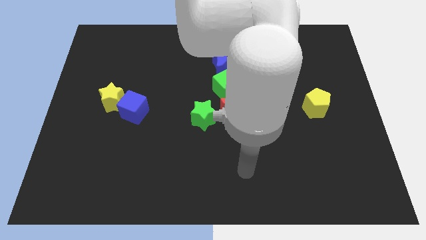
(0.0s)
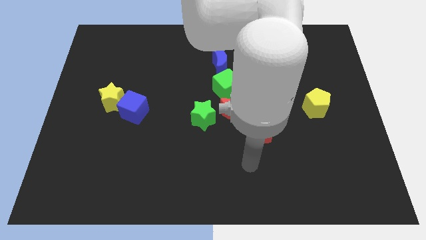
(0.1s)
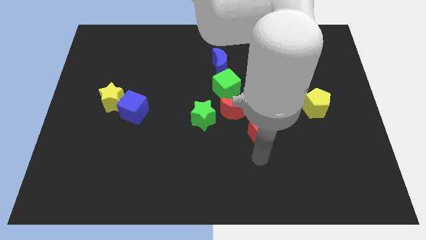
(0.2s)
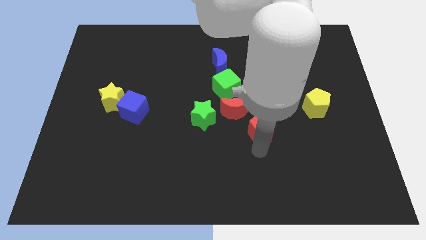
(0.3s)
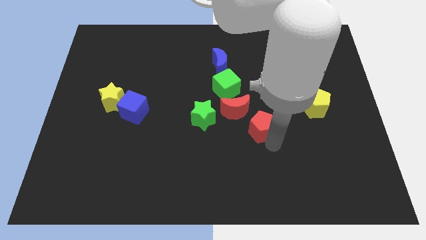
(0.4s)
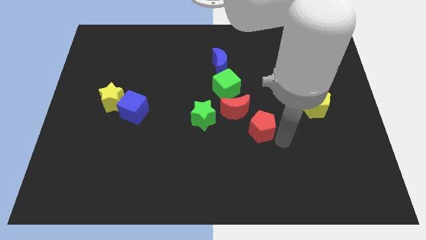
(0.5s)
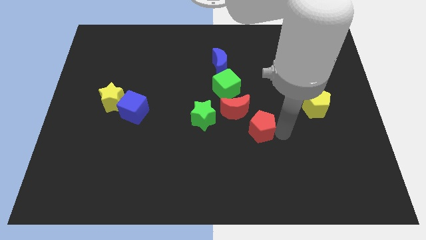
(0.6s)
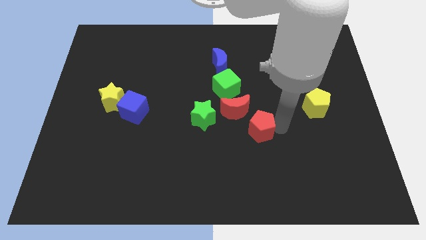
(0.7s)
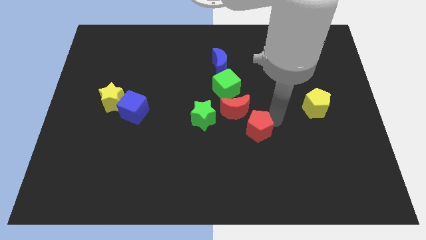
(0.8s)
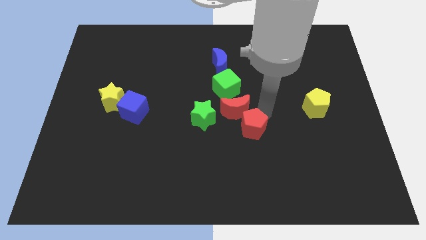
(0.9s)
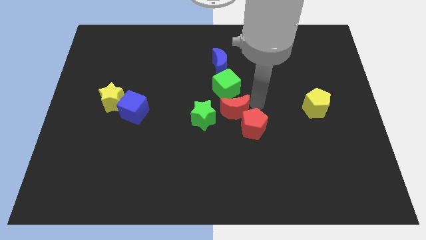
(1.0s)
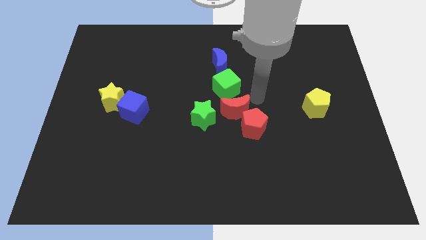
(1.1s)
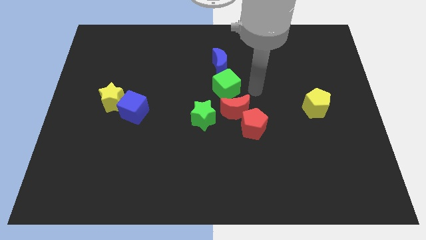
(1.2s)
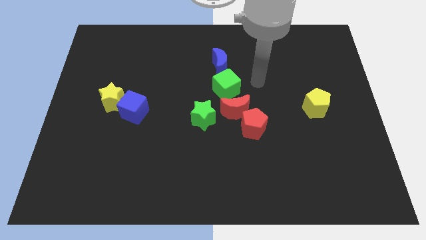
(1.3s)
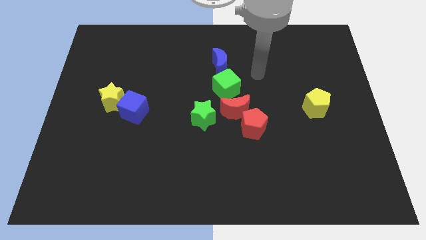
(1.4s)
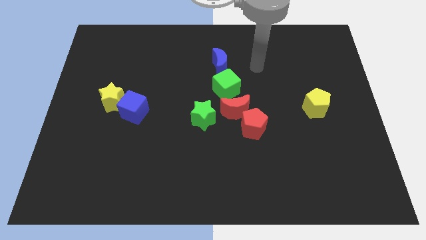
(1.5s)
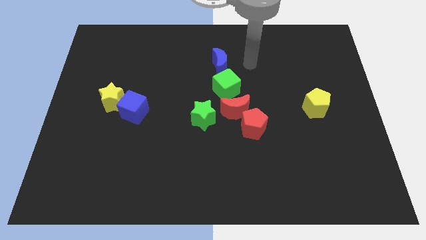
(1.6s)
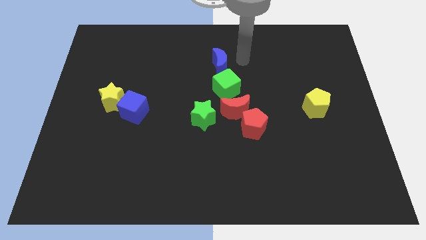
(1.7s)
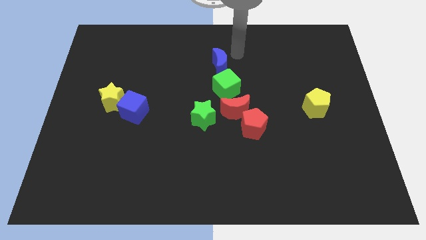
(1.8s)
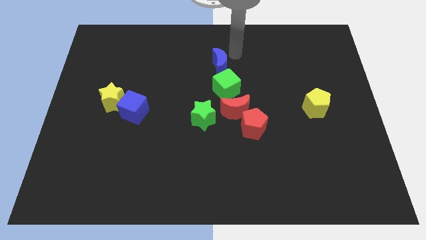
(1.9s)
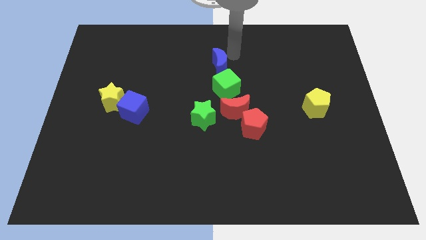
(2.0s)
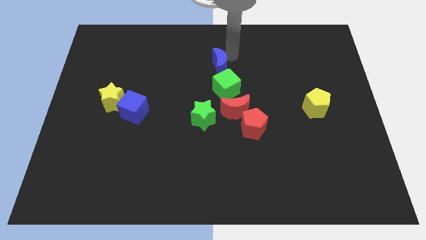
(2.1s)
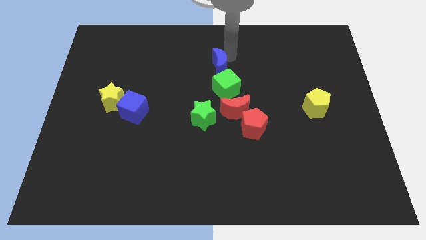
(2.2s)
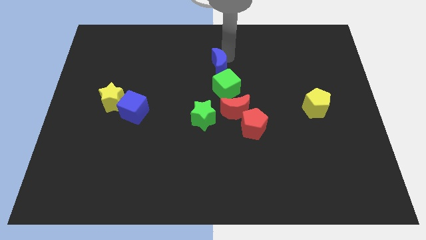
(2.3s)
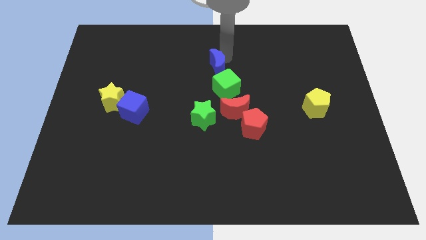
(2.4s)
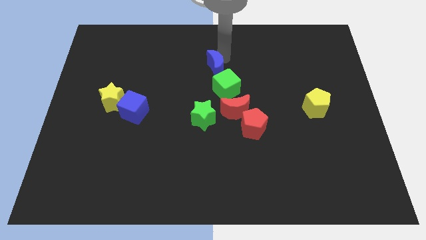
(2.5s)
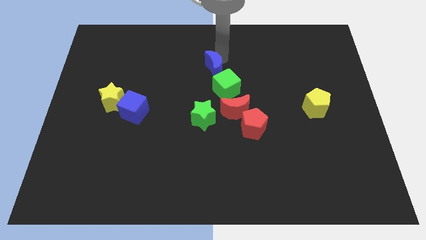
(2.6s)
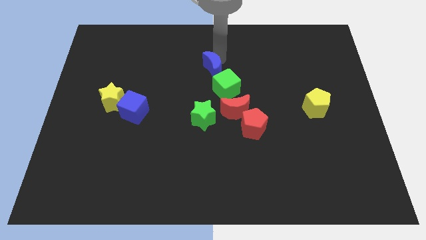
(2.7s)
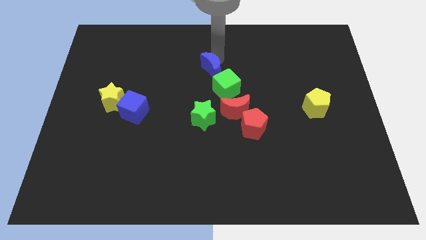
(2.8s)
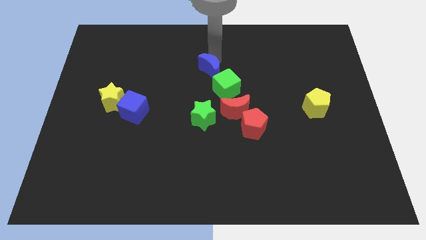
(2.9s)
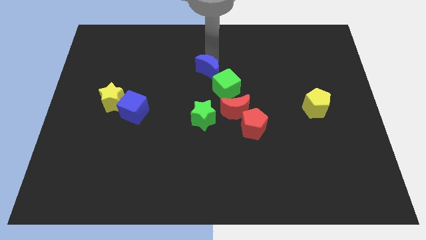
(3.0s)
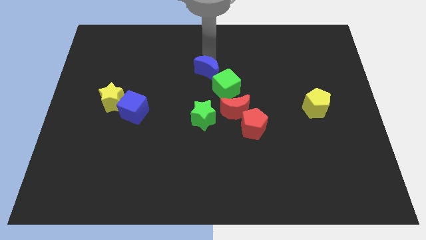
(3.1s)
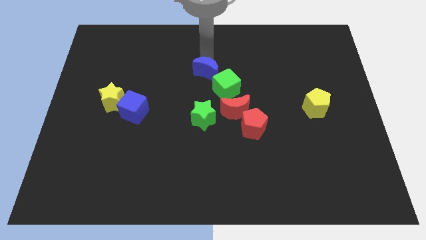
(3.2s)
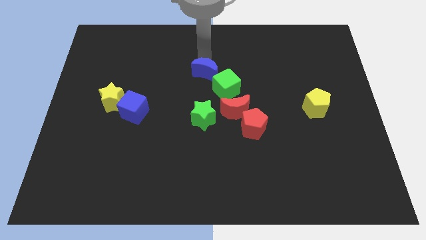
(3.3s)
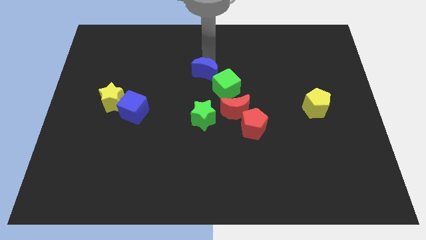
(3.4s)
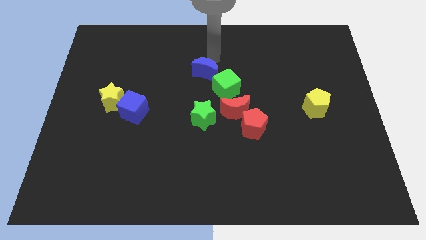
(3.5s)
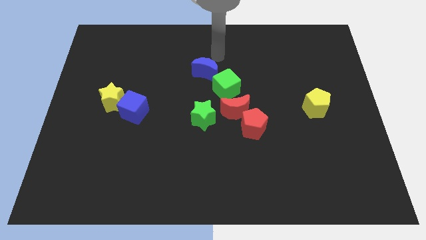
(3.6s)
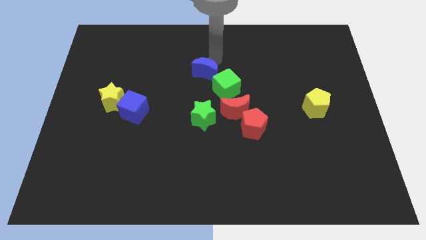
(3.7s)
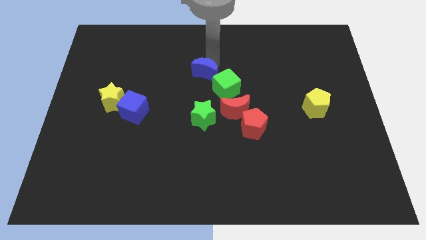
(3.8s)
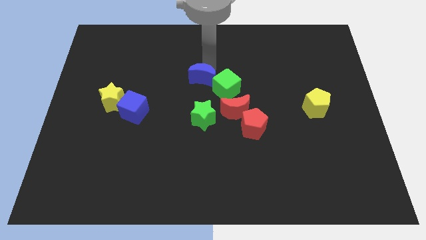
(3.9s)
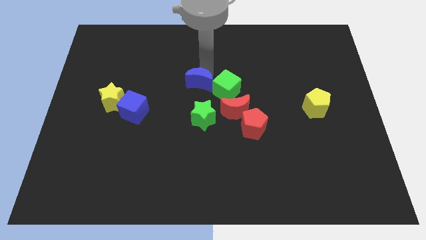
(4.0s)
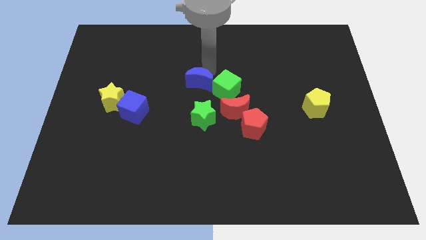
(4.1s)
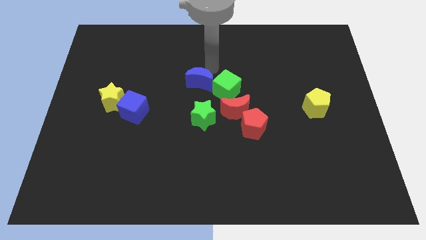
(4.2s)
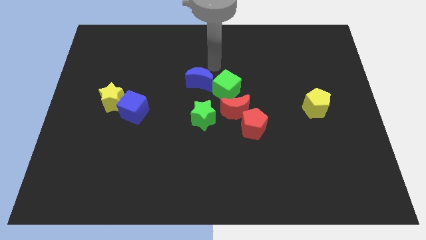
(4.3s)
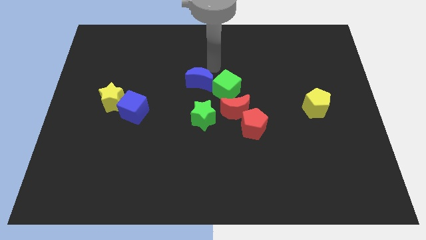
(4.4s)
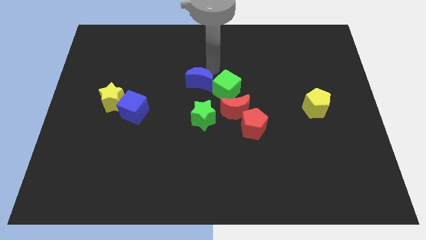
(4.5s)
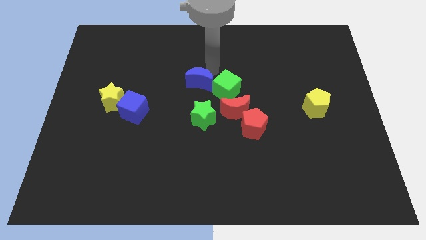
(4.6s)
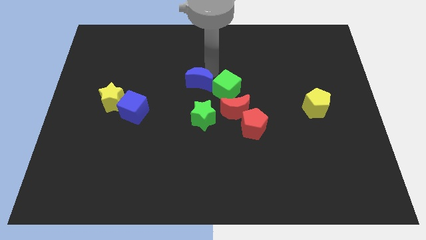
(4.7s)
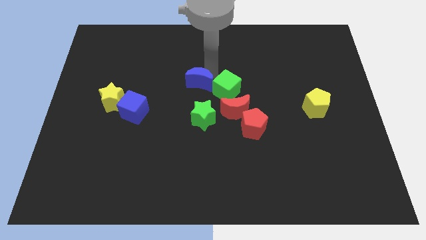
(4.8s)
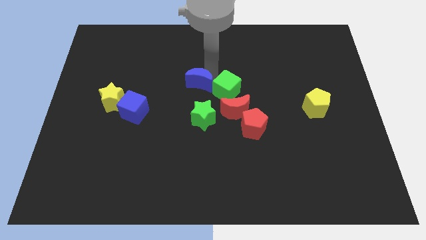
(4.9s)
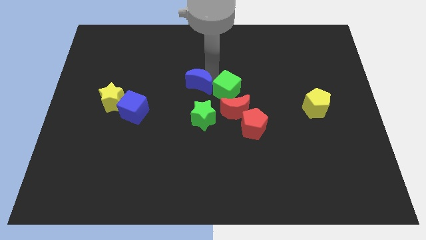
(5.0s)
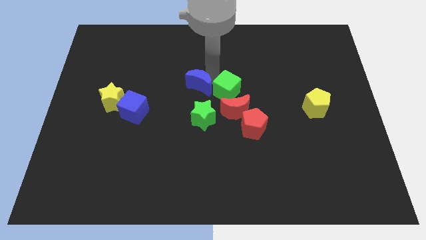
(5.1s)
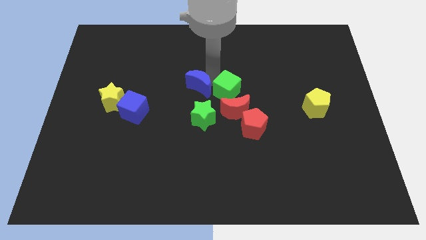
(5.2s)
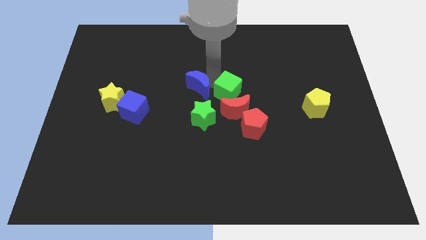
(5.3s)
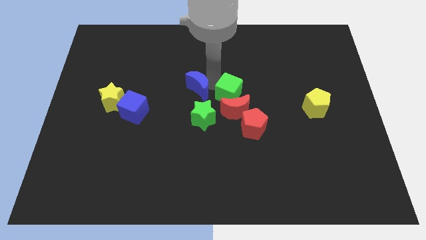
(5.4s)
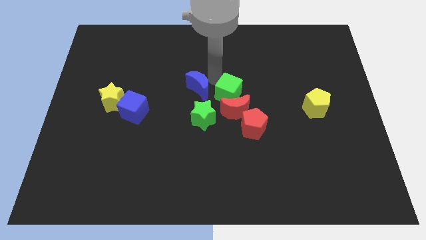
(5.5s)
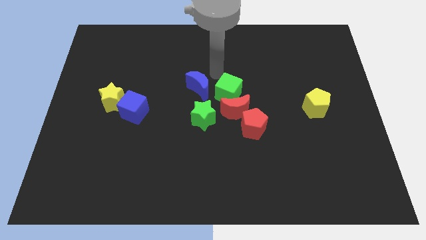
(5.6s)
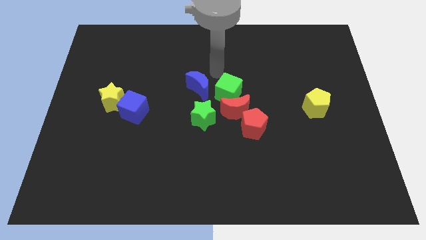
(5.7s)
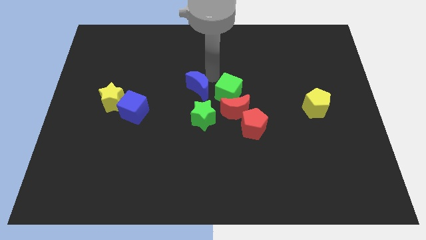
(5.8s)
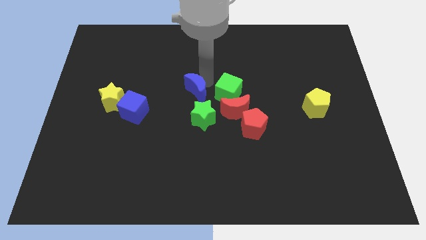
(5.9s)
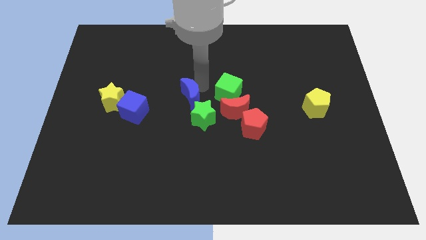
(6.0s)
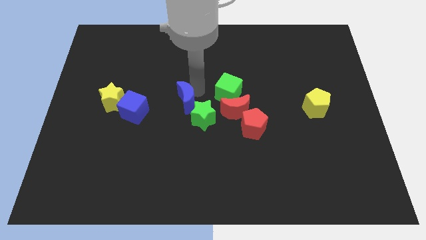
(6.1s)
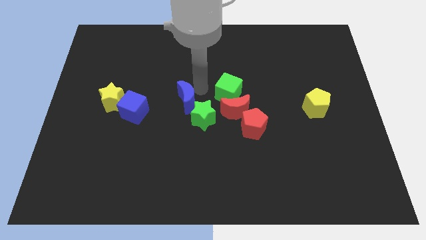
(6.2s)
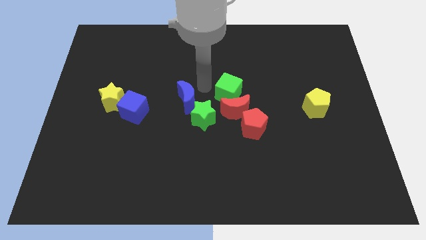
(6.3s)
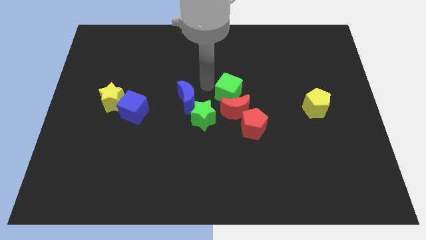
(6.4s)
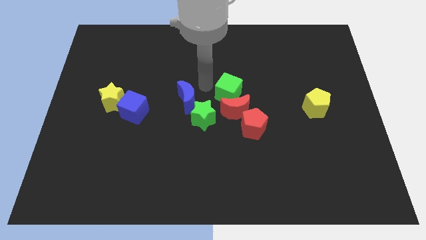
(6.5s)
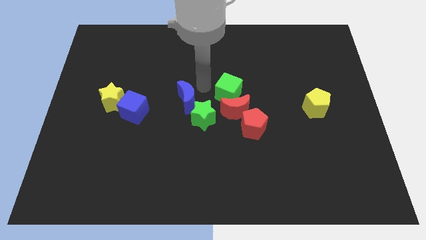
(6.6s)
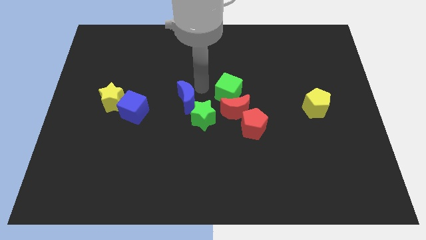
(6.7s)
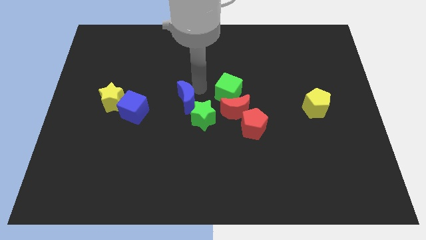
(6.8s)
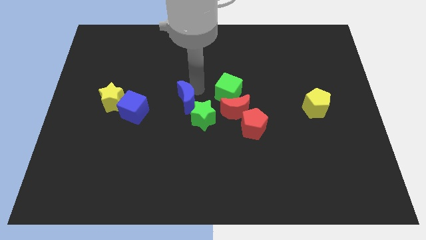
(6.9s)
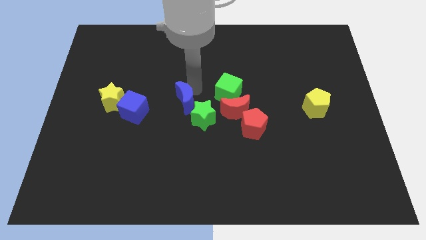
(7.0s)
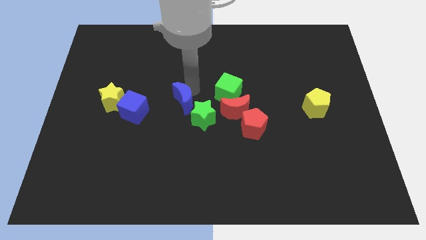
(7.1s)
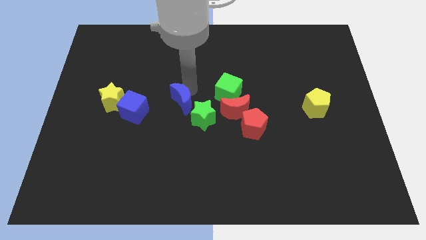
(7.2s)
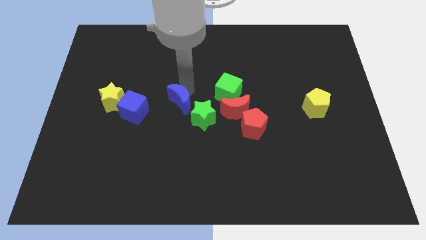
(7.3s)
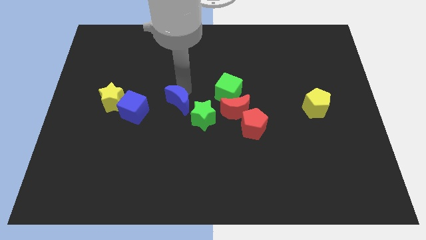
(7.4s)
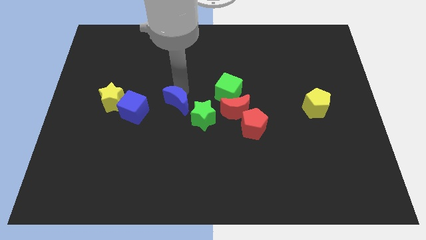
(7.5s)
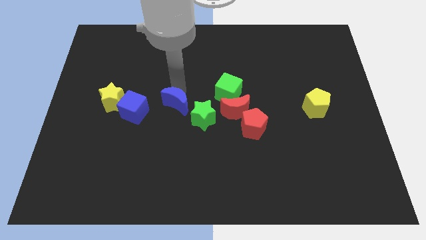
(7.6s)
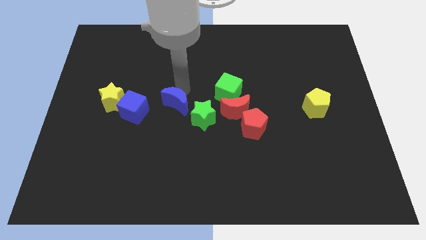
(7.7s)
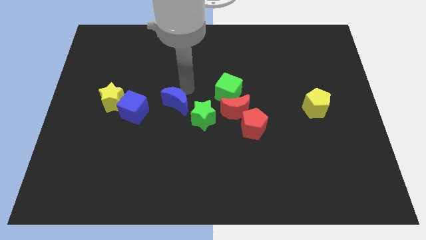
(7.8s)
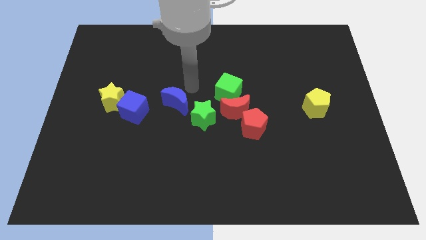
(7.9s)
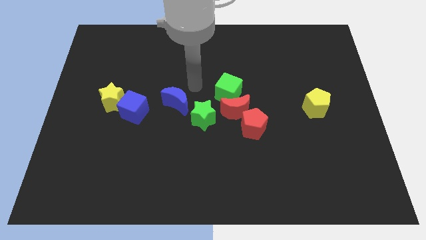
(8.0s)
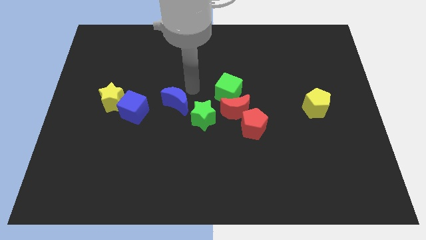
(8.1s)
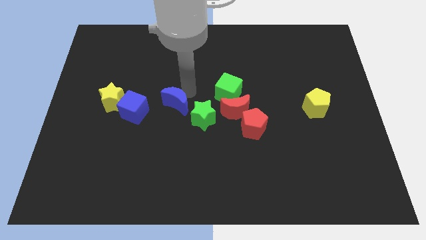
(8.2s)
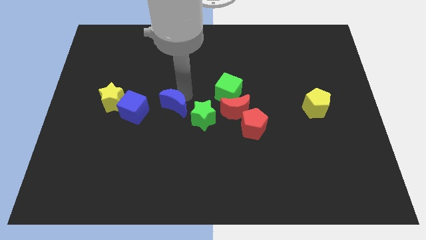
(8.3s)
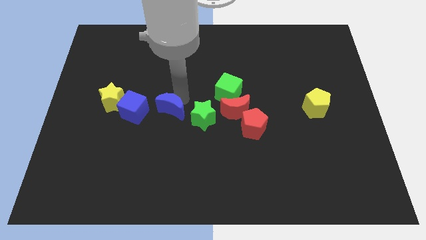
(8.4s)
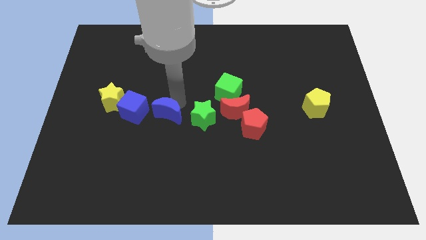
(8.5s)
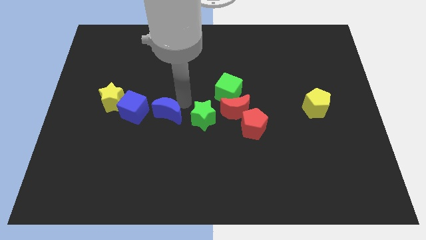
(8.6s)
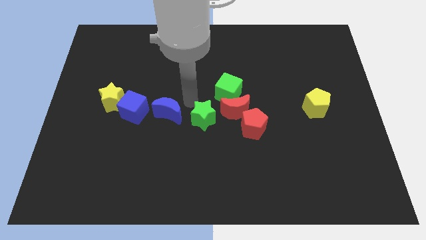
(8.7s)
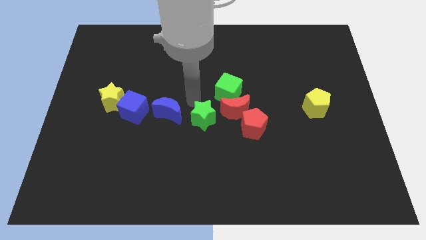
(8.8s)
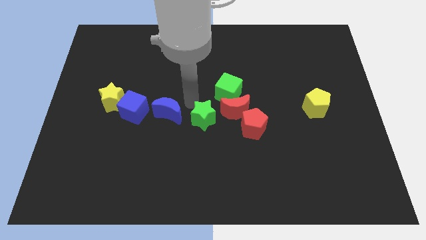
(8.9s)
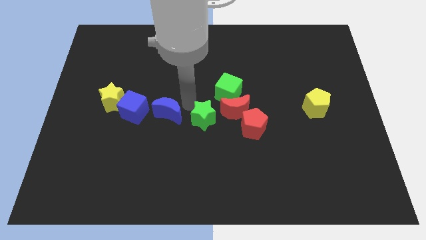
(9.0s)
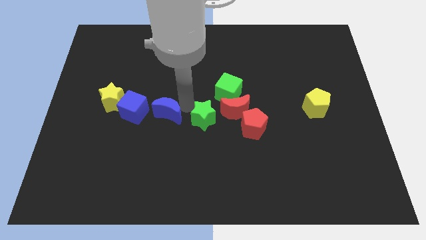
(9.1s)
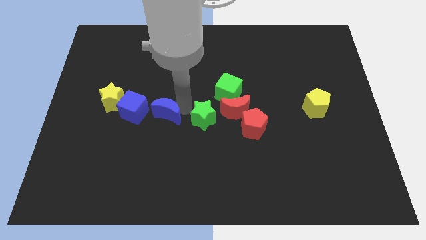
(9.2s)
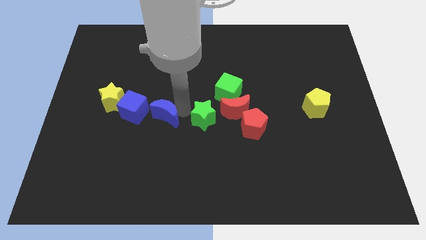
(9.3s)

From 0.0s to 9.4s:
push the blue moon down and then left
